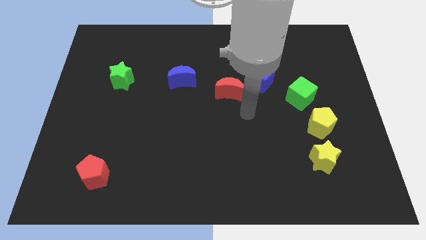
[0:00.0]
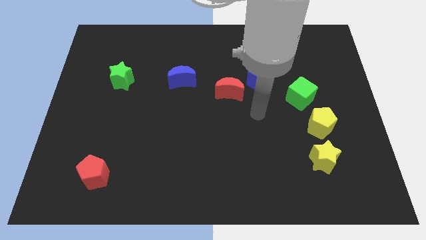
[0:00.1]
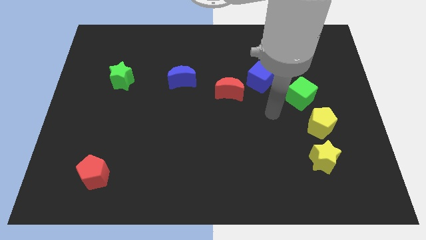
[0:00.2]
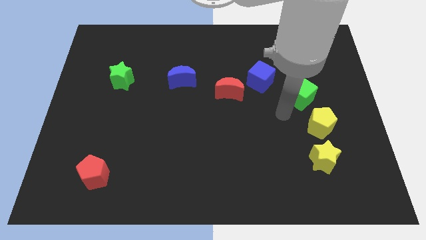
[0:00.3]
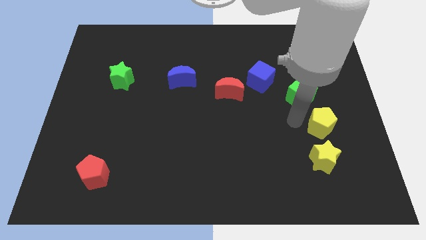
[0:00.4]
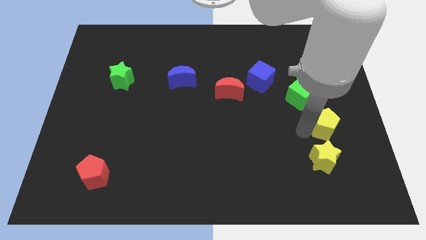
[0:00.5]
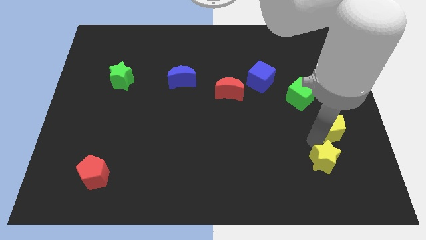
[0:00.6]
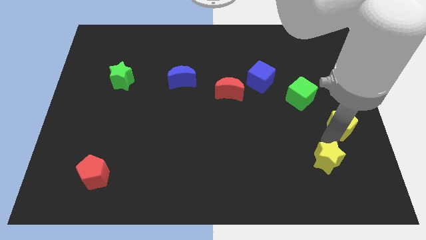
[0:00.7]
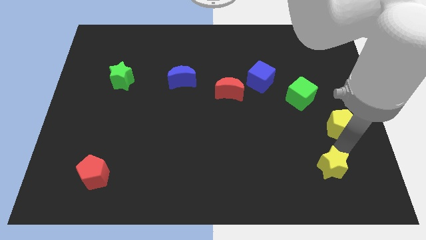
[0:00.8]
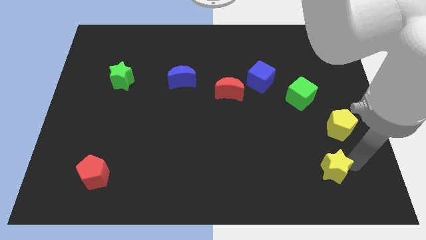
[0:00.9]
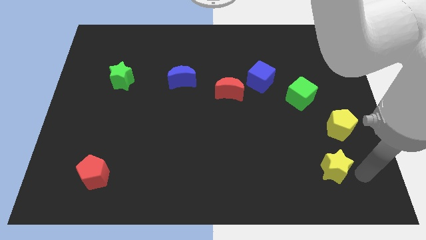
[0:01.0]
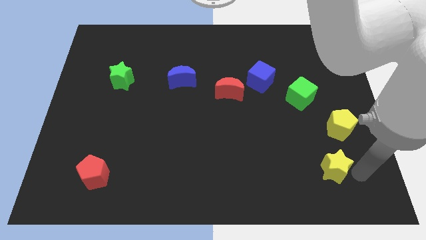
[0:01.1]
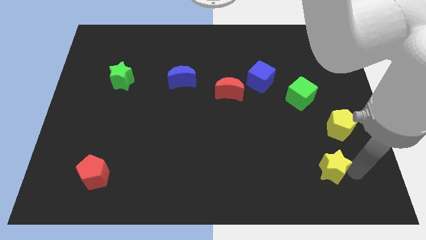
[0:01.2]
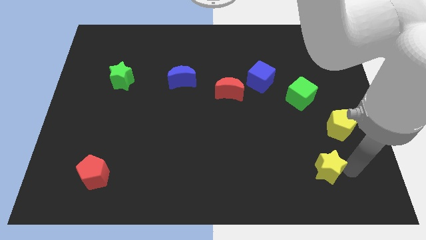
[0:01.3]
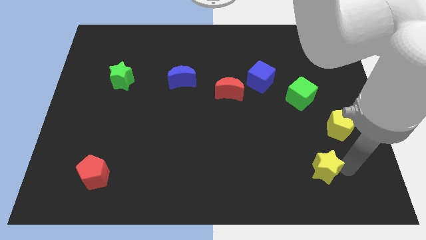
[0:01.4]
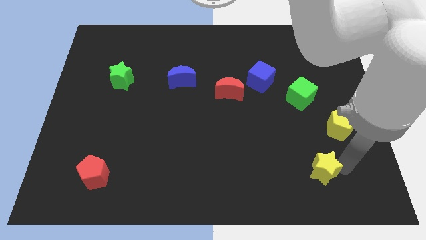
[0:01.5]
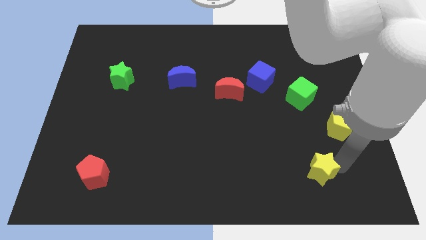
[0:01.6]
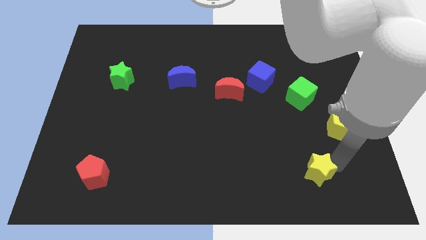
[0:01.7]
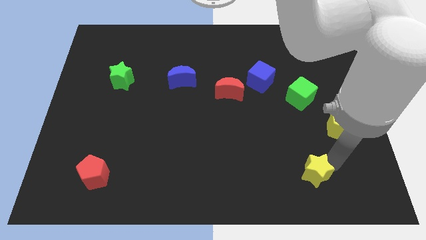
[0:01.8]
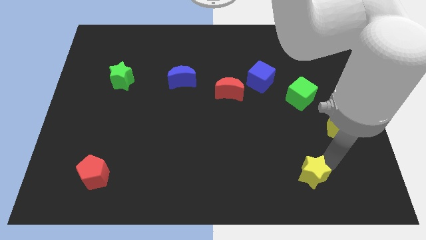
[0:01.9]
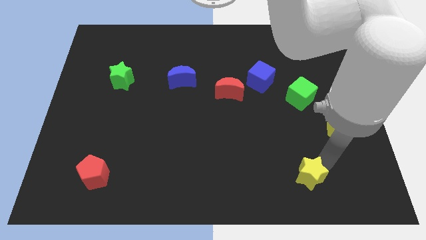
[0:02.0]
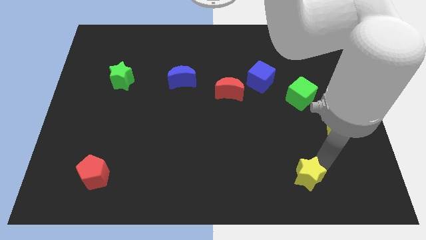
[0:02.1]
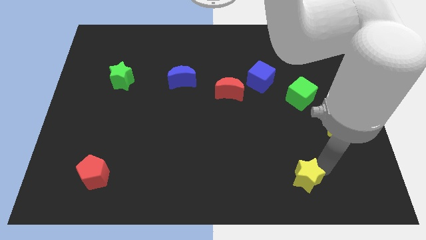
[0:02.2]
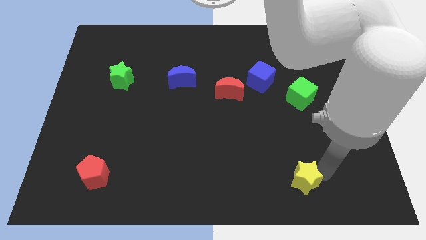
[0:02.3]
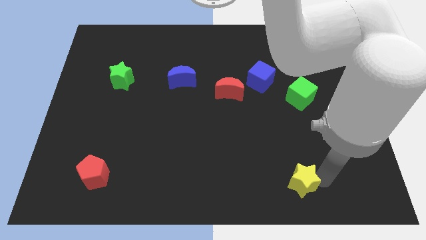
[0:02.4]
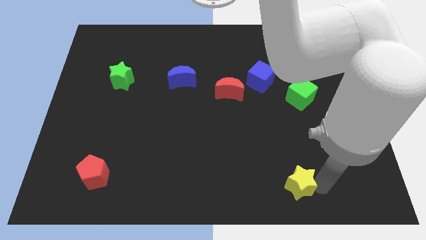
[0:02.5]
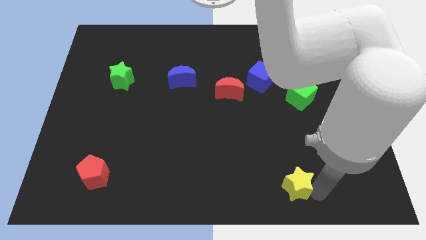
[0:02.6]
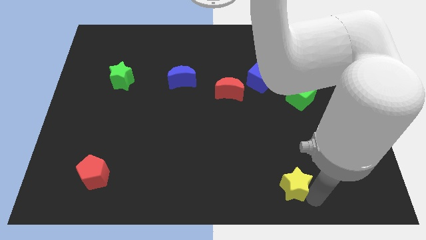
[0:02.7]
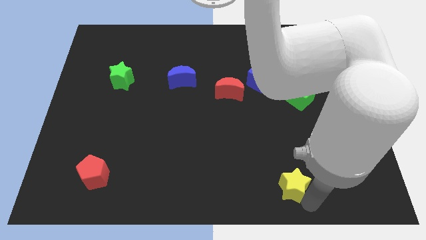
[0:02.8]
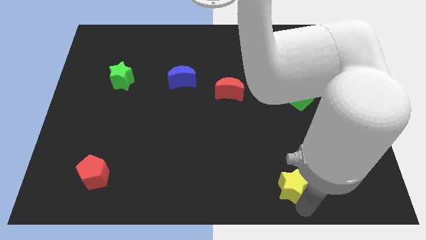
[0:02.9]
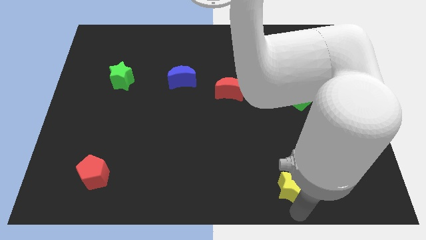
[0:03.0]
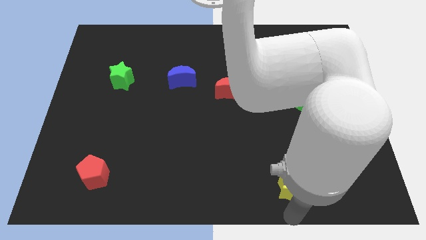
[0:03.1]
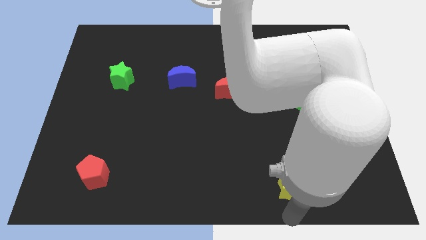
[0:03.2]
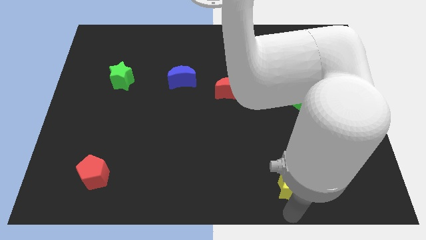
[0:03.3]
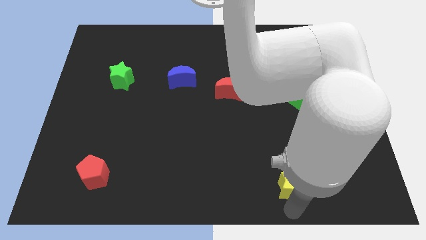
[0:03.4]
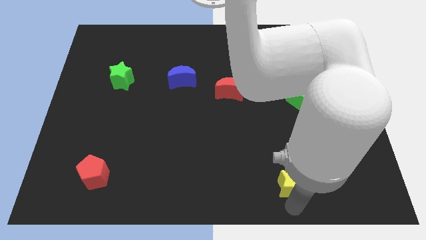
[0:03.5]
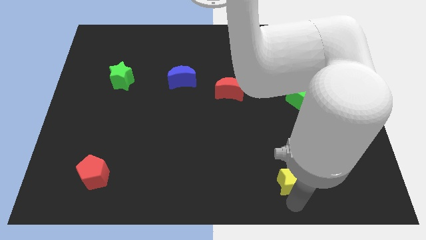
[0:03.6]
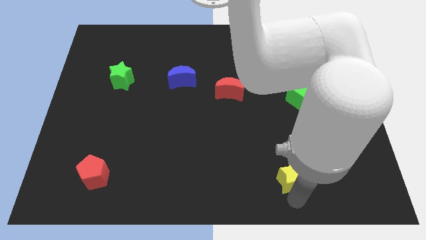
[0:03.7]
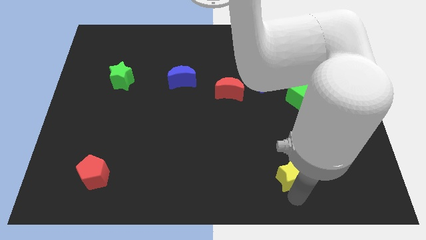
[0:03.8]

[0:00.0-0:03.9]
push the yellow star a little bit to the left

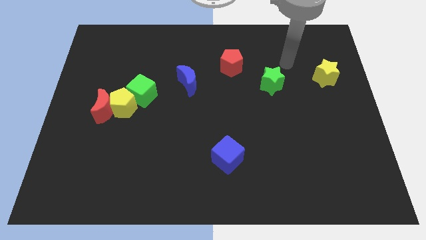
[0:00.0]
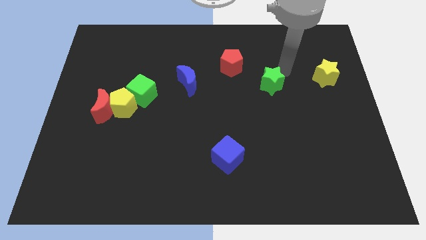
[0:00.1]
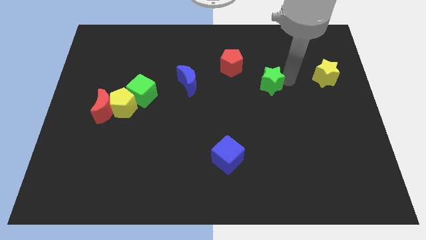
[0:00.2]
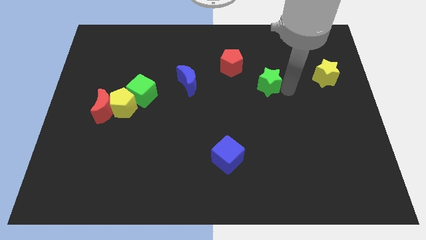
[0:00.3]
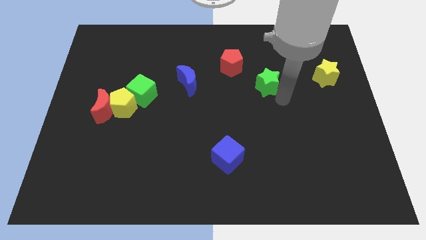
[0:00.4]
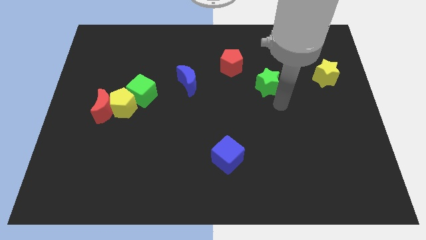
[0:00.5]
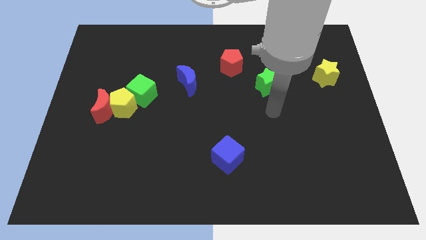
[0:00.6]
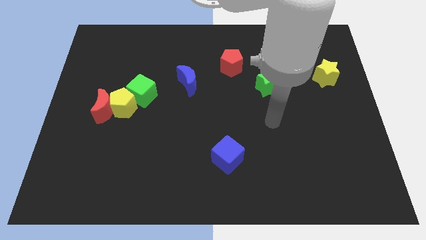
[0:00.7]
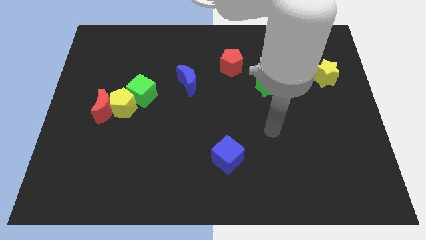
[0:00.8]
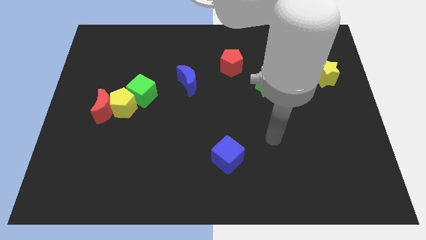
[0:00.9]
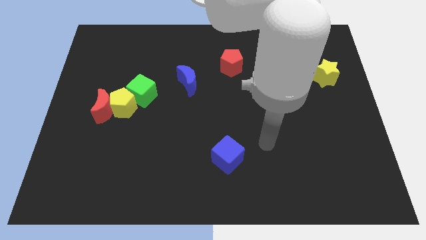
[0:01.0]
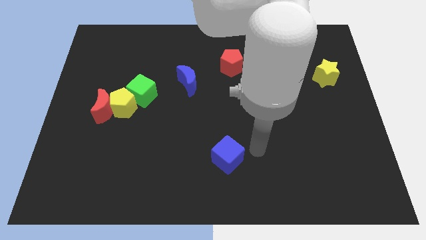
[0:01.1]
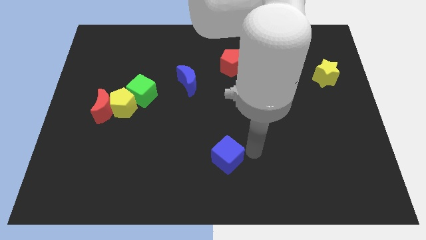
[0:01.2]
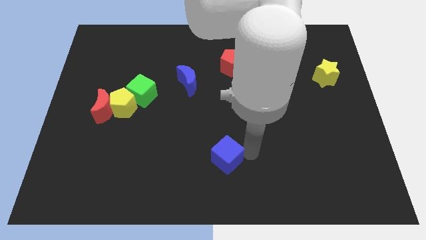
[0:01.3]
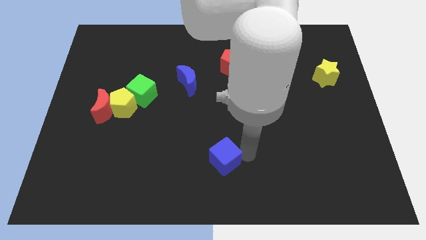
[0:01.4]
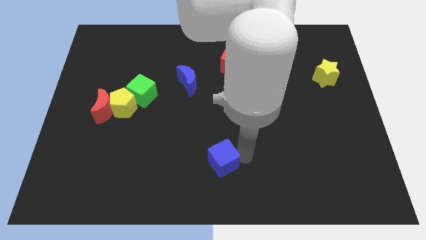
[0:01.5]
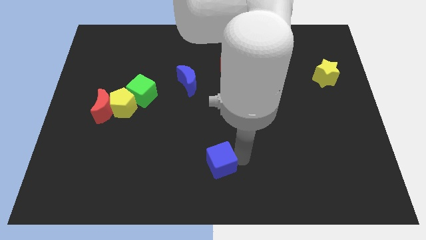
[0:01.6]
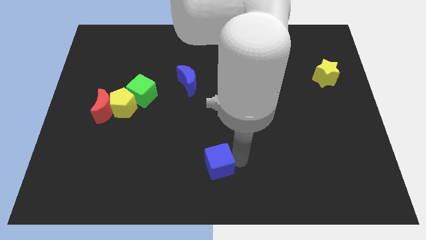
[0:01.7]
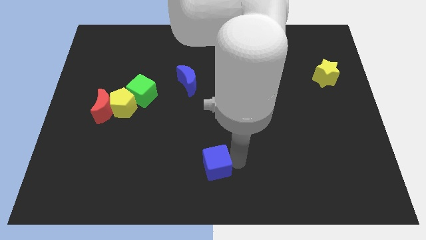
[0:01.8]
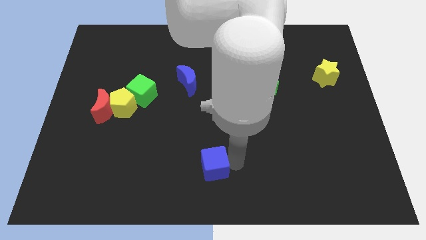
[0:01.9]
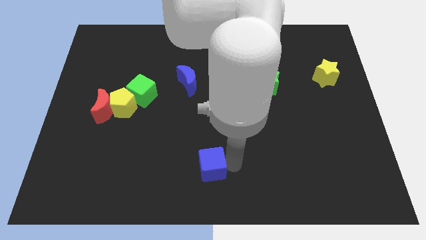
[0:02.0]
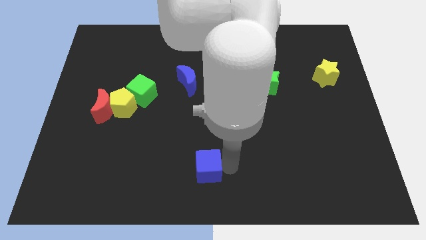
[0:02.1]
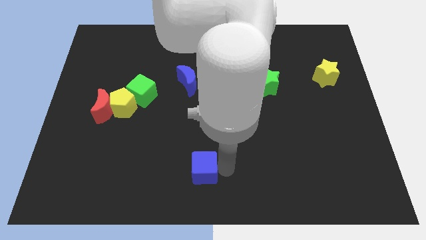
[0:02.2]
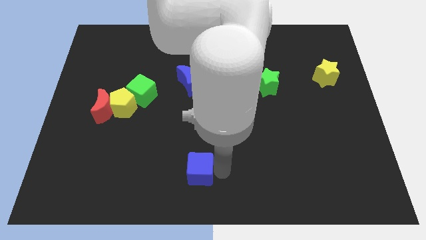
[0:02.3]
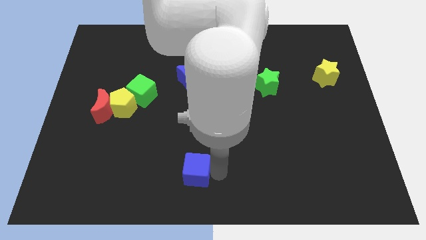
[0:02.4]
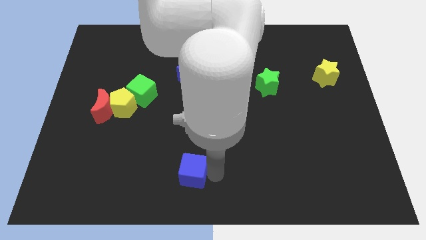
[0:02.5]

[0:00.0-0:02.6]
move the blue cube a little bit to the left

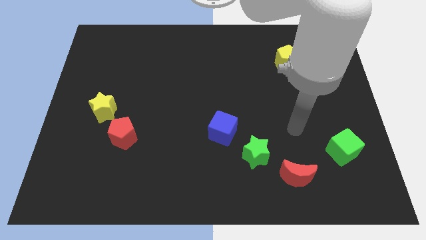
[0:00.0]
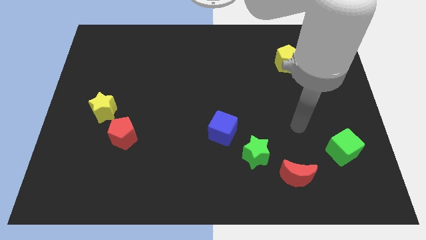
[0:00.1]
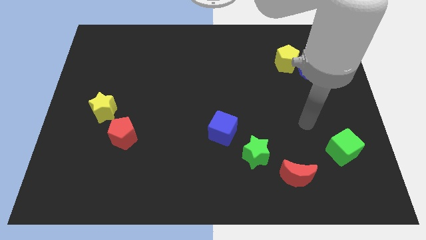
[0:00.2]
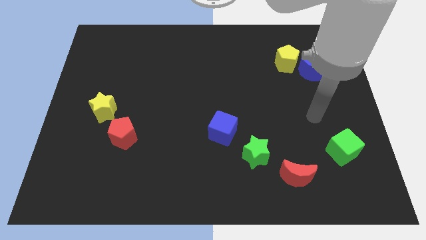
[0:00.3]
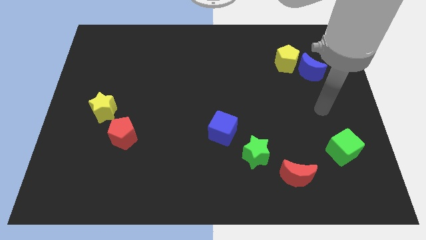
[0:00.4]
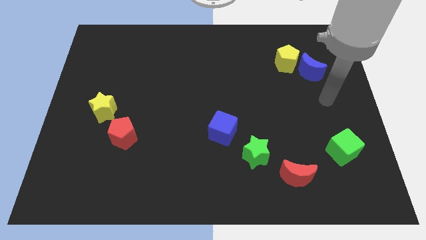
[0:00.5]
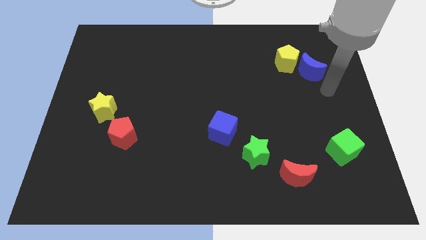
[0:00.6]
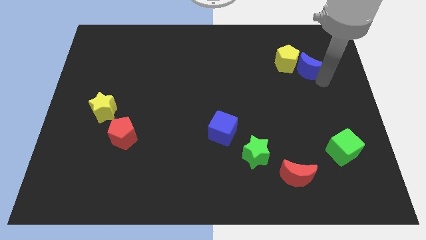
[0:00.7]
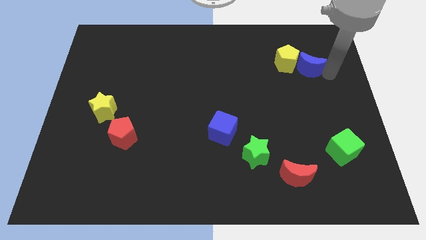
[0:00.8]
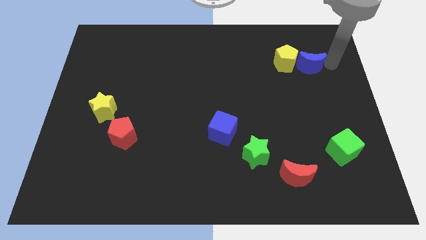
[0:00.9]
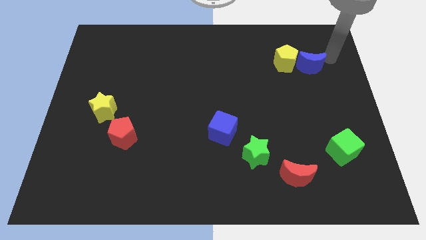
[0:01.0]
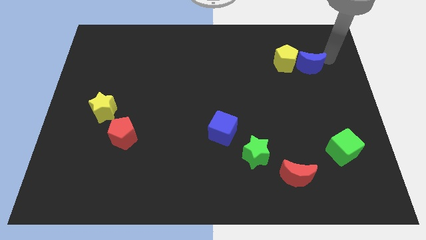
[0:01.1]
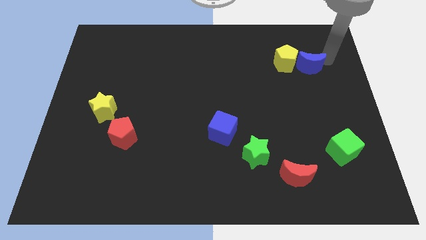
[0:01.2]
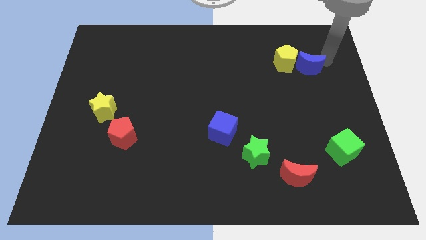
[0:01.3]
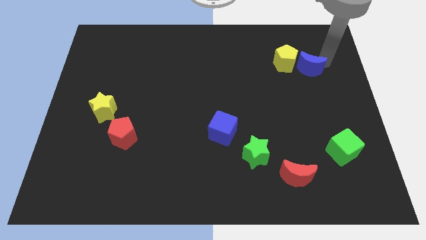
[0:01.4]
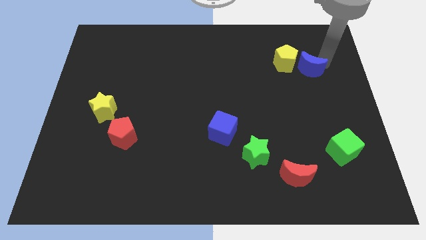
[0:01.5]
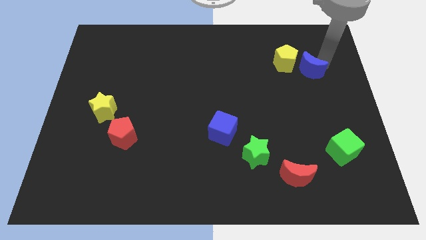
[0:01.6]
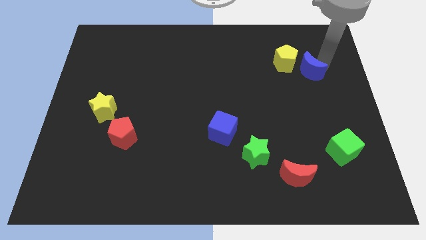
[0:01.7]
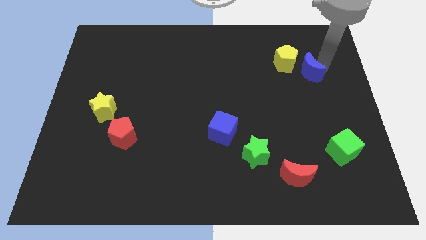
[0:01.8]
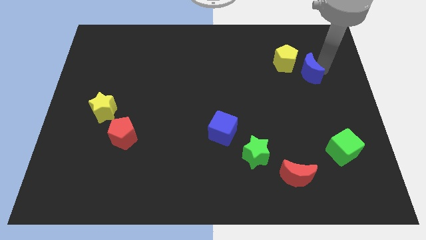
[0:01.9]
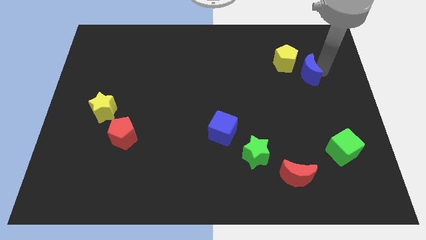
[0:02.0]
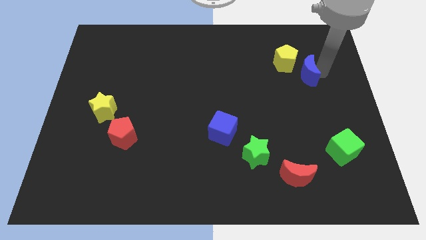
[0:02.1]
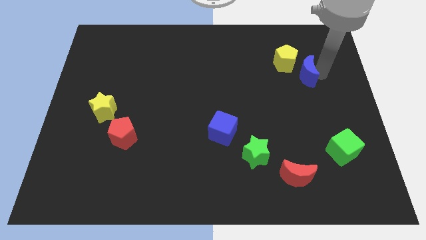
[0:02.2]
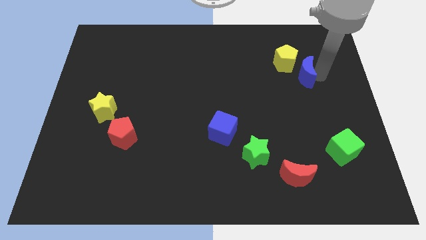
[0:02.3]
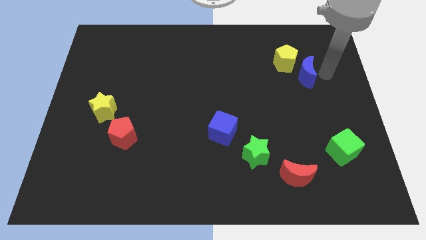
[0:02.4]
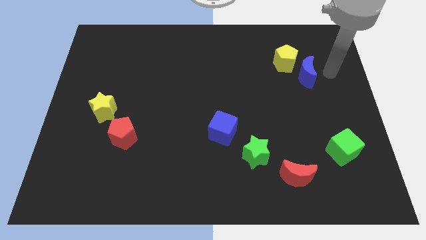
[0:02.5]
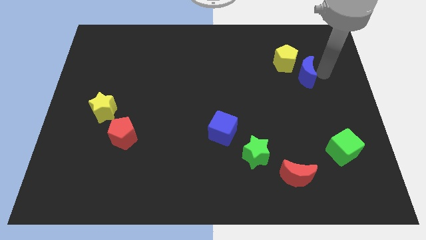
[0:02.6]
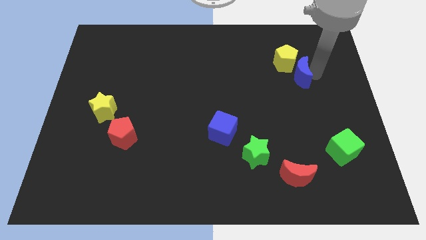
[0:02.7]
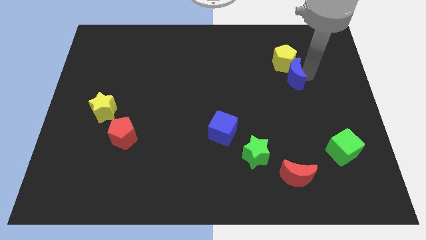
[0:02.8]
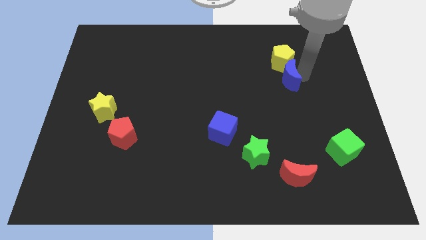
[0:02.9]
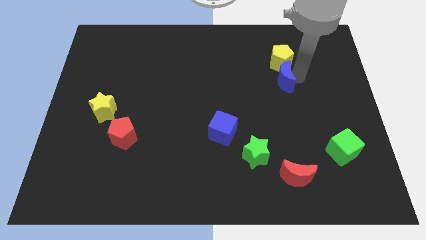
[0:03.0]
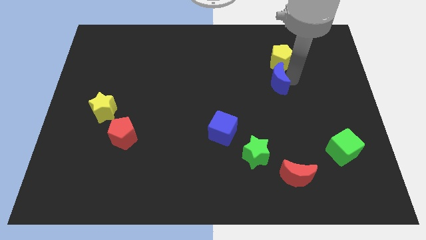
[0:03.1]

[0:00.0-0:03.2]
move the blue moon left a little bit
